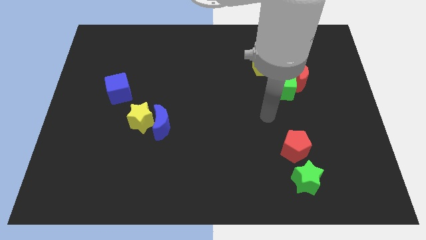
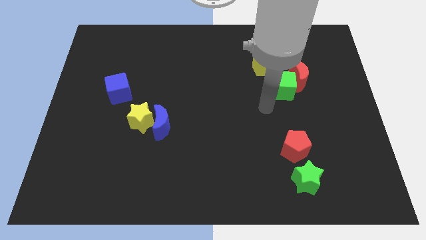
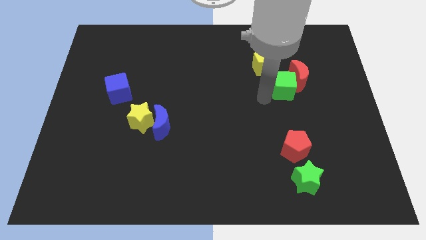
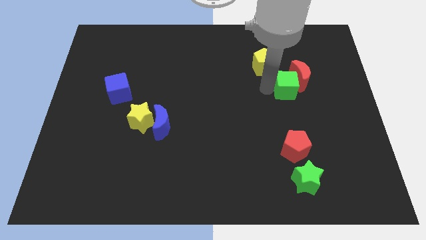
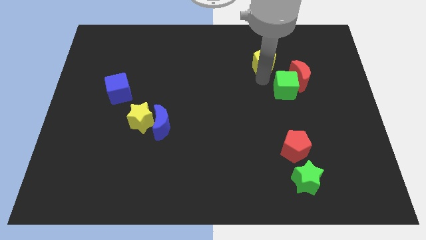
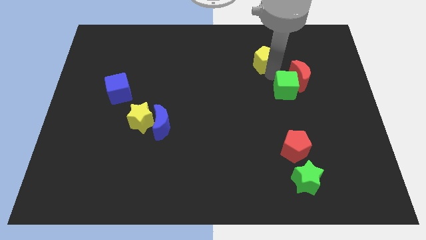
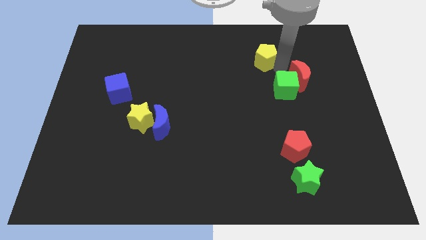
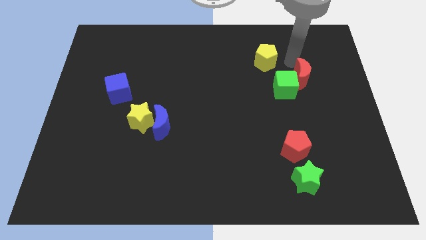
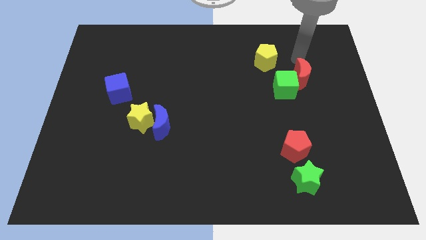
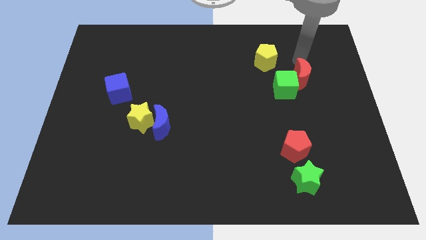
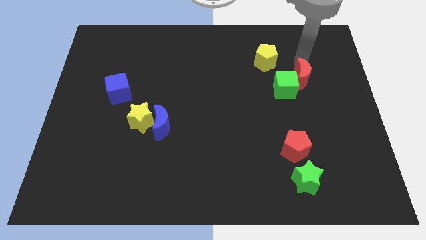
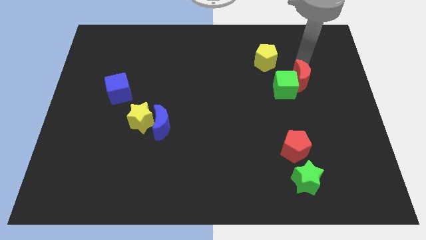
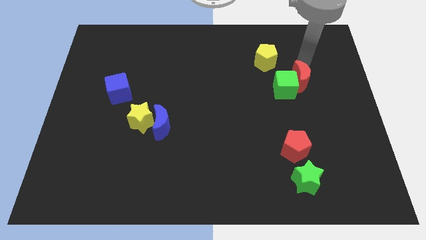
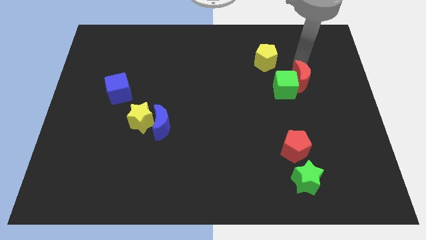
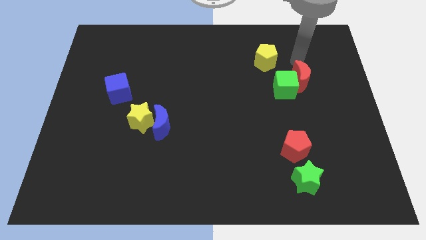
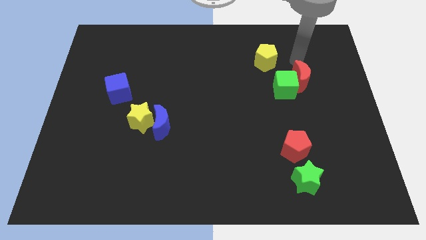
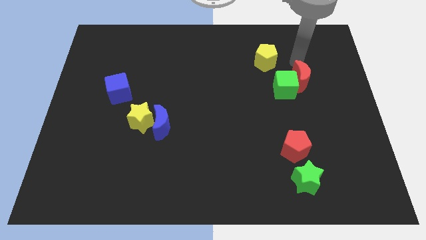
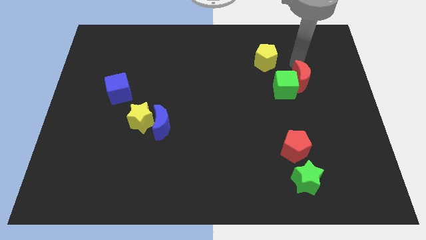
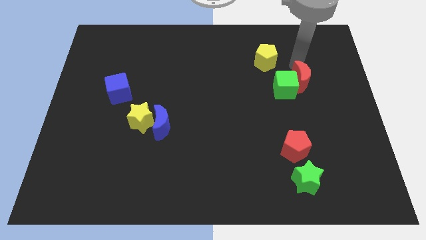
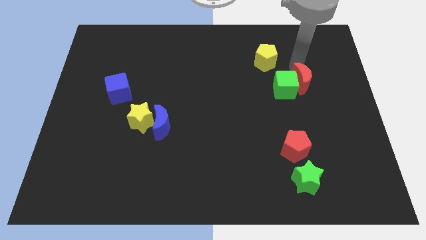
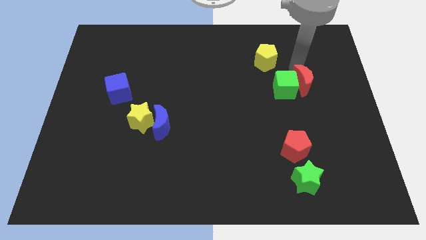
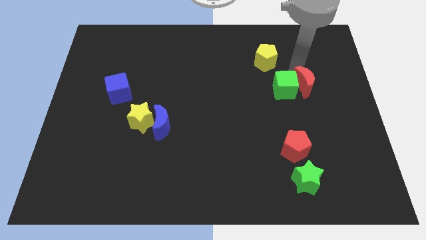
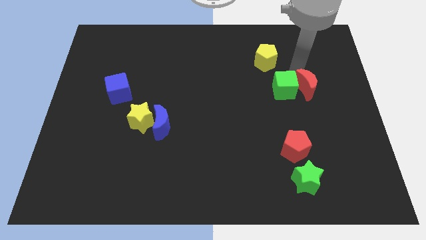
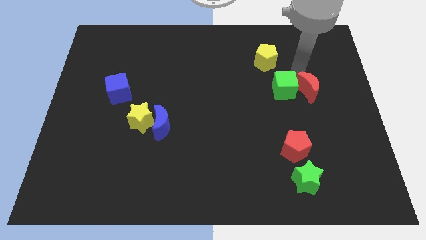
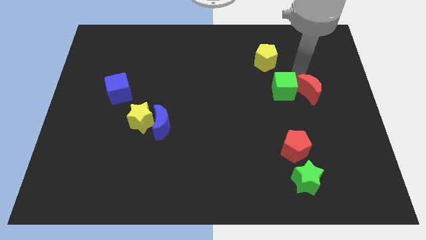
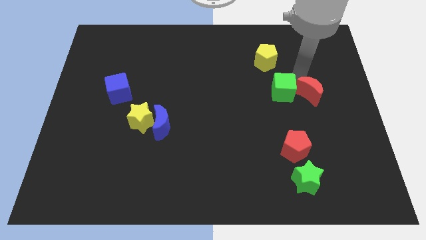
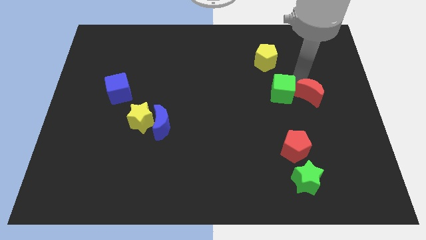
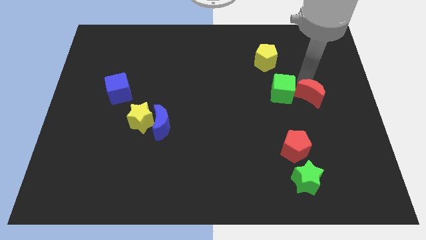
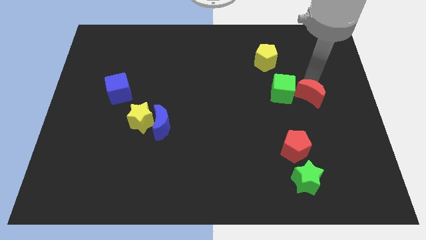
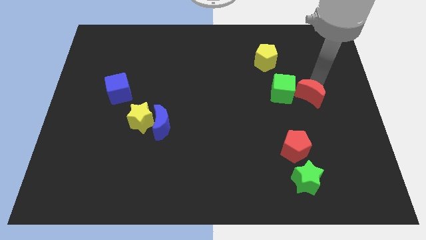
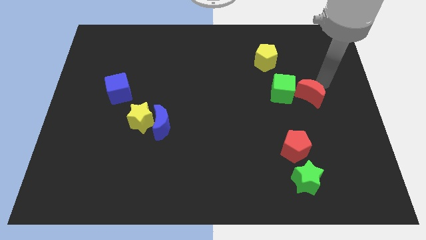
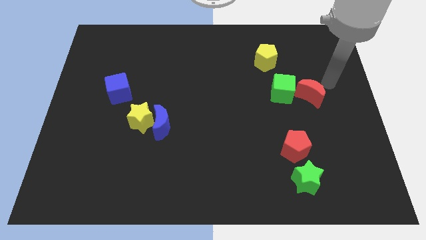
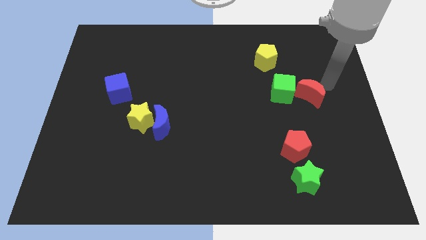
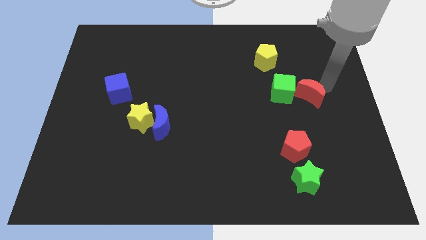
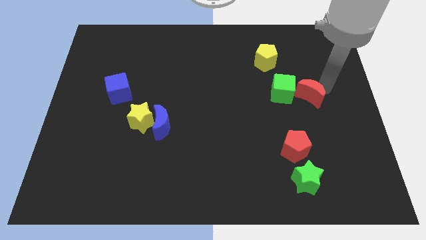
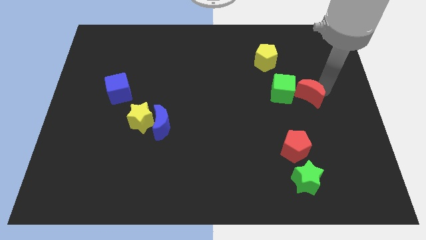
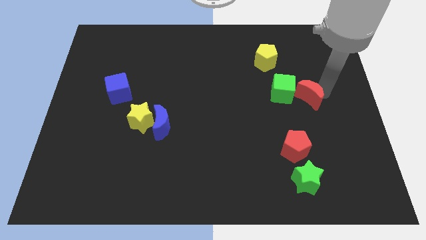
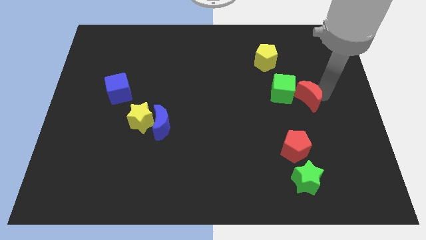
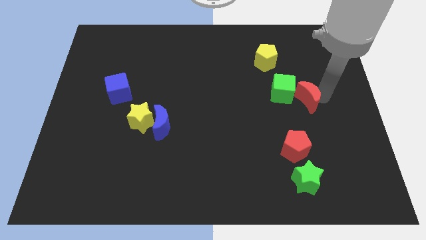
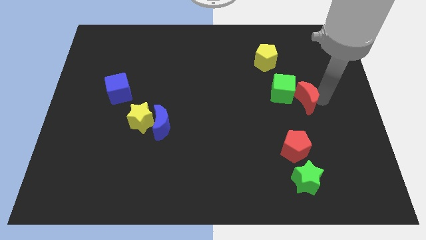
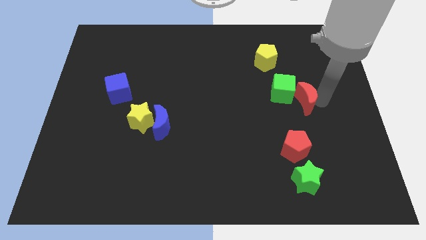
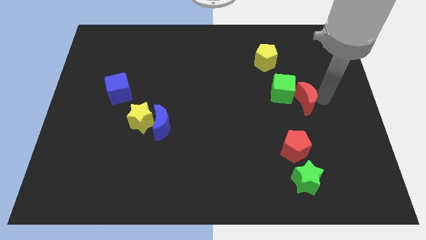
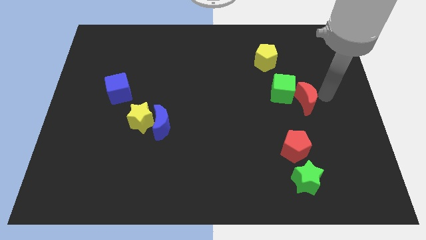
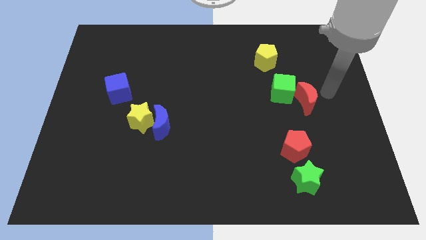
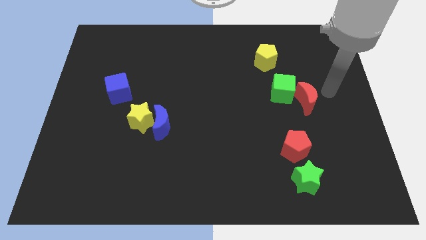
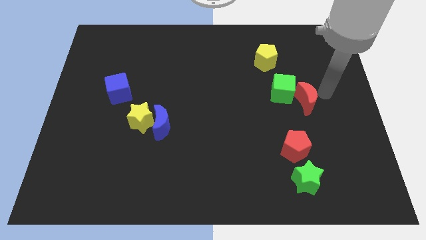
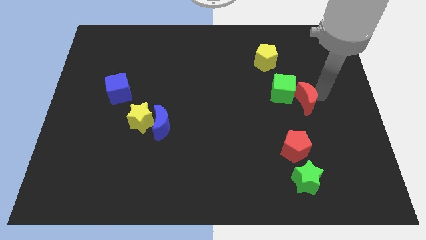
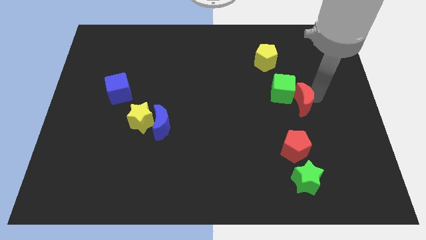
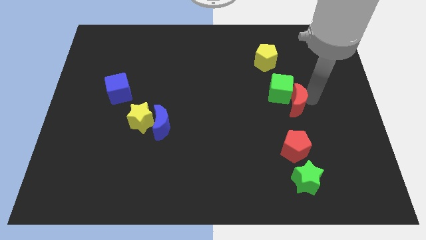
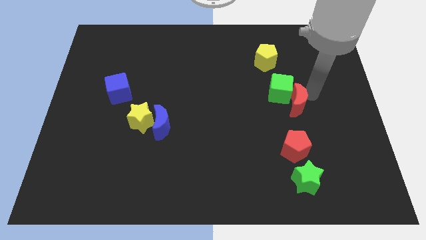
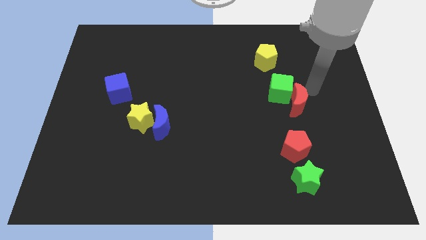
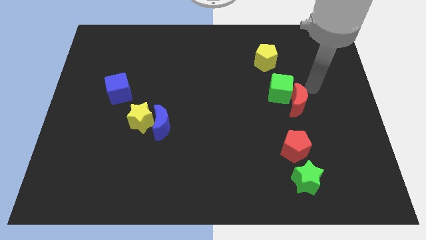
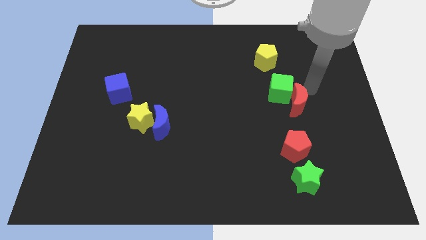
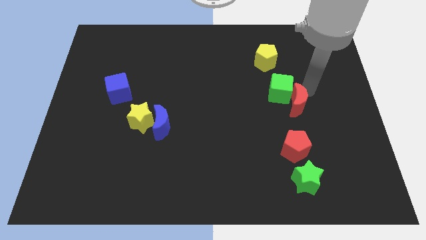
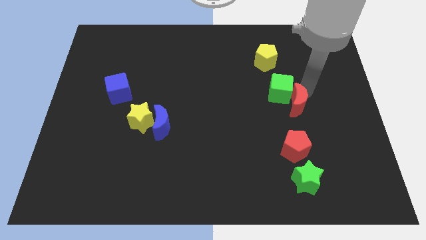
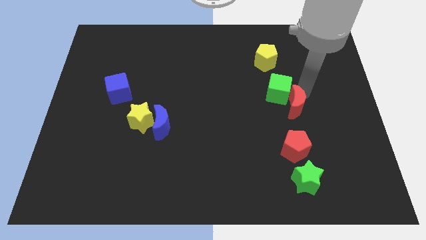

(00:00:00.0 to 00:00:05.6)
slide the red moon somewhat down and left

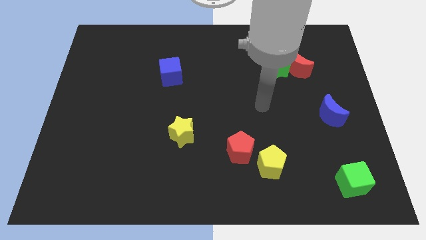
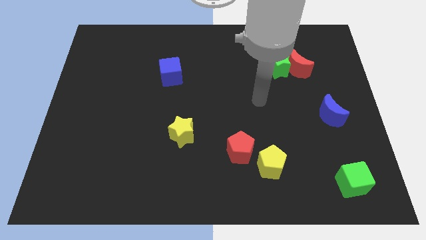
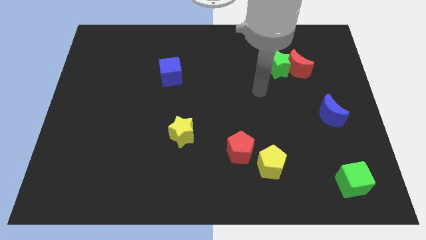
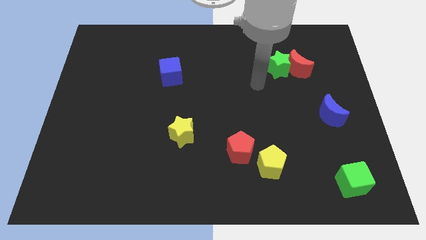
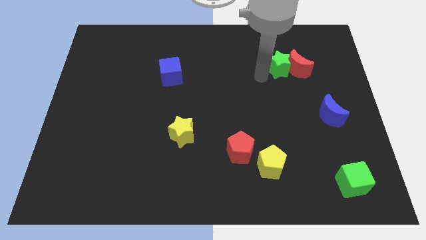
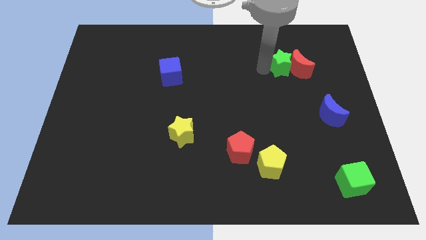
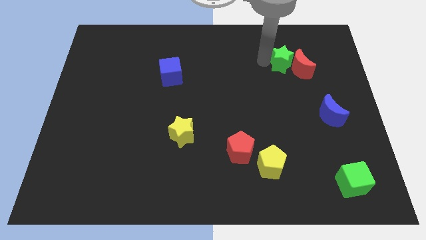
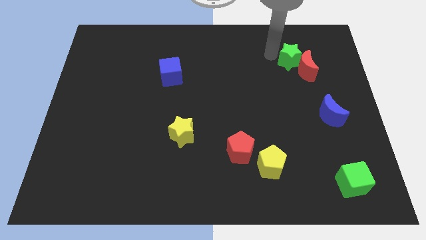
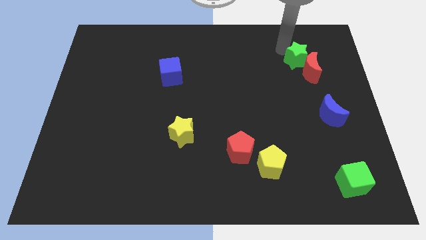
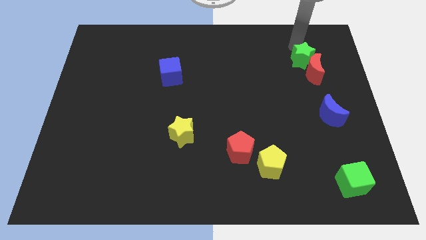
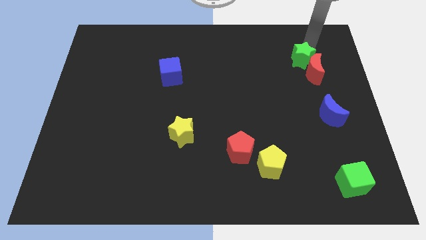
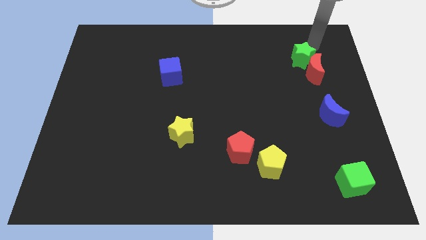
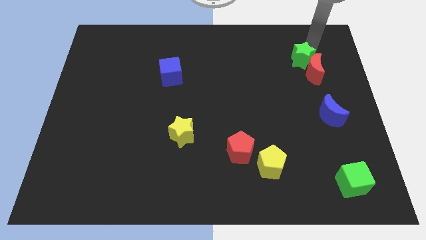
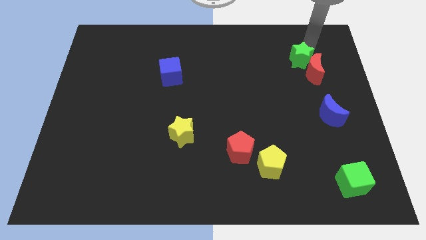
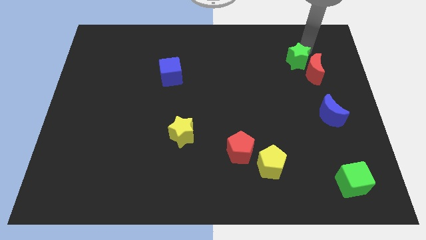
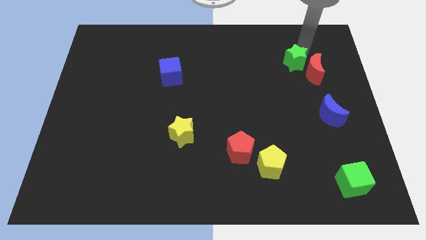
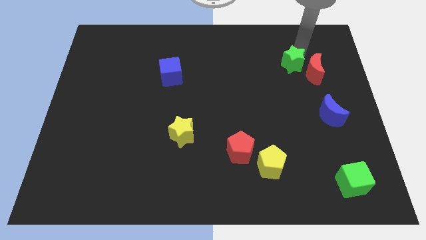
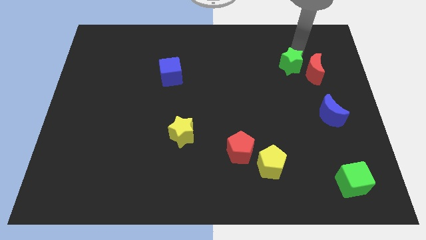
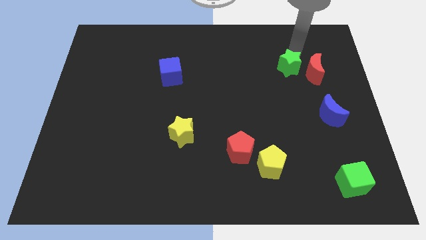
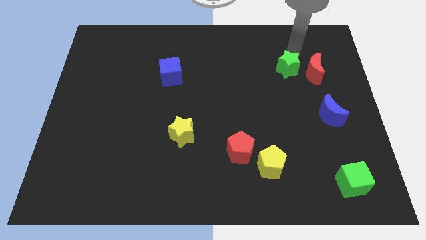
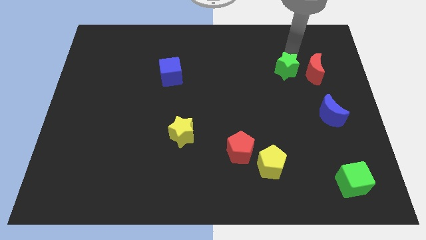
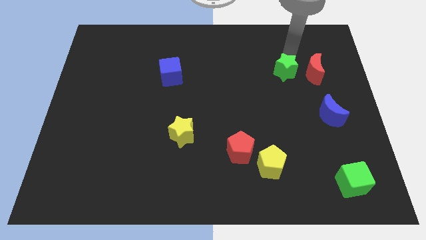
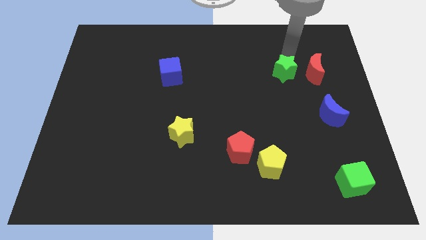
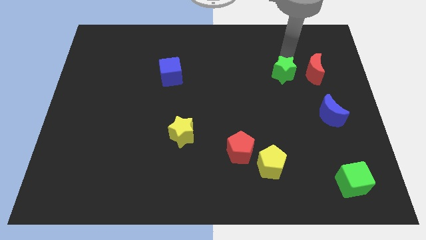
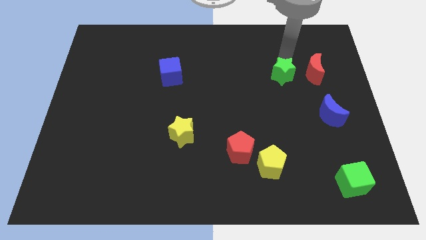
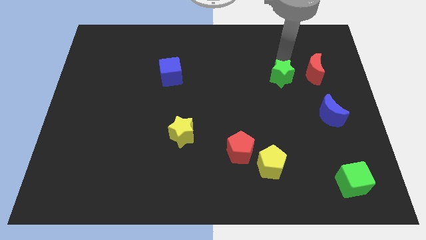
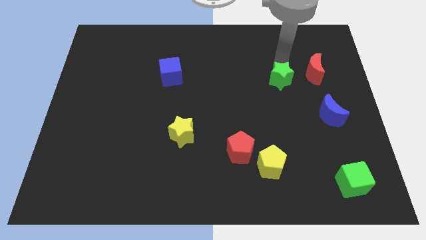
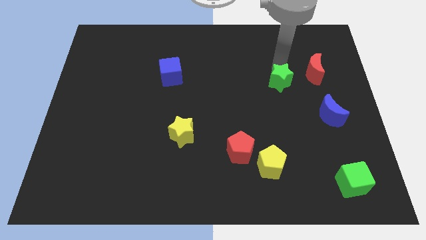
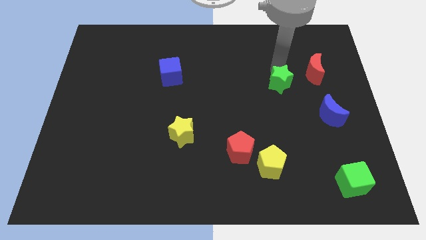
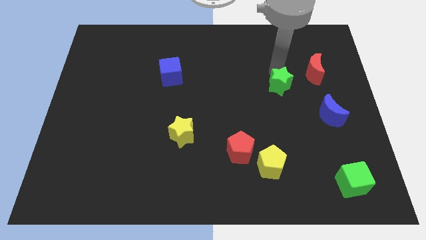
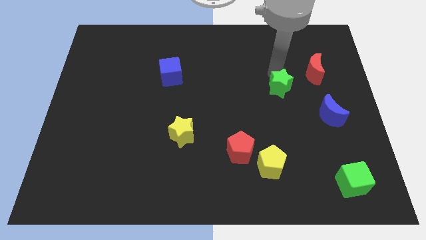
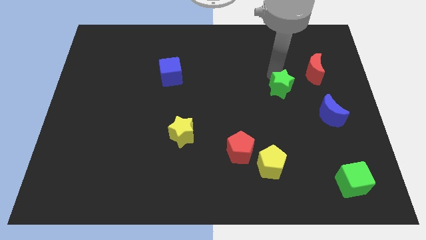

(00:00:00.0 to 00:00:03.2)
move the green star somewhat down
